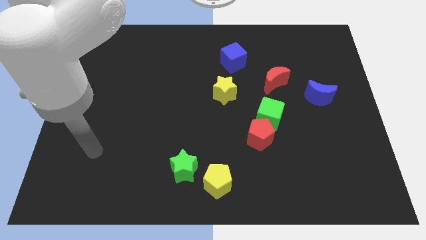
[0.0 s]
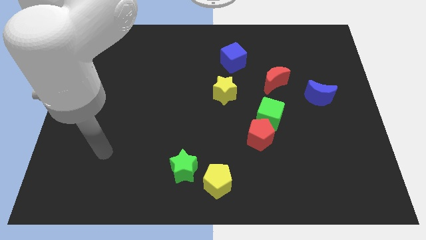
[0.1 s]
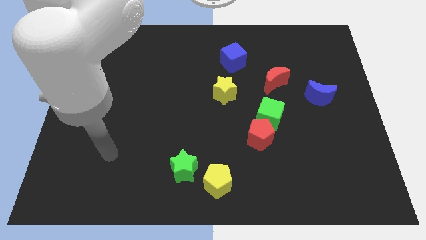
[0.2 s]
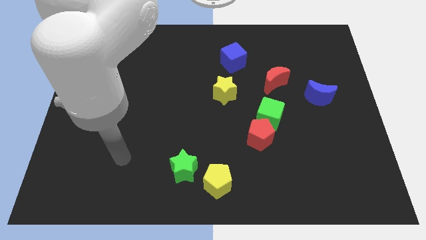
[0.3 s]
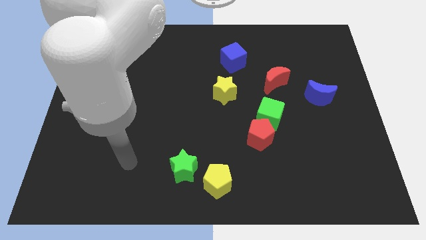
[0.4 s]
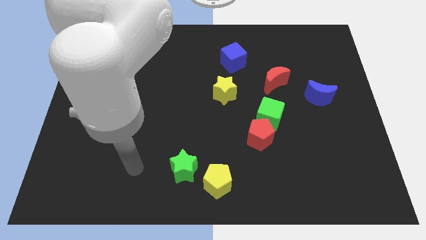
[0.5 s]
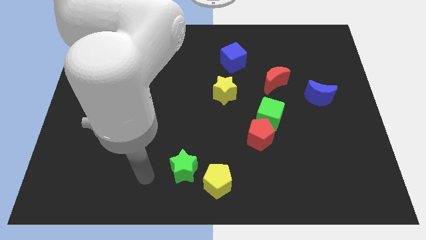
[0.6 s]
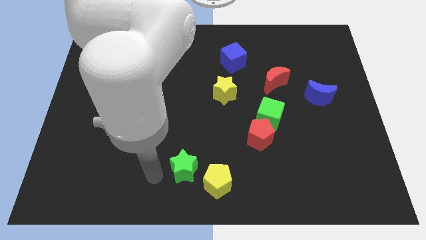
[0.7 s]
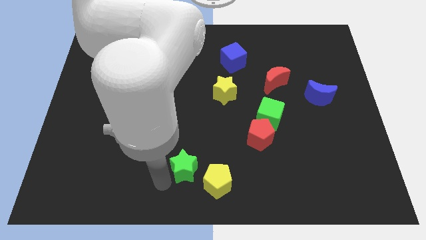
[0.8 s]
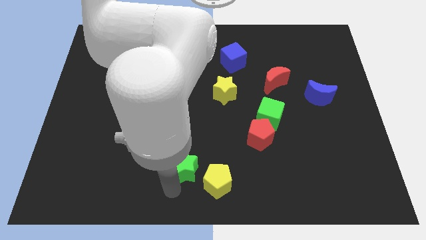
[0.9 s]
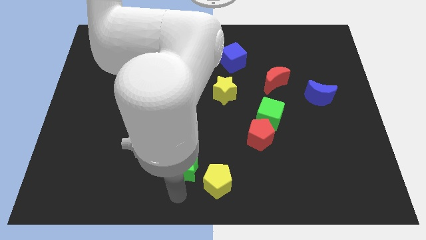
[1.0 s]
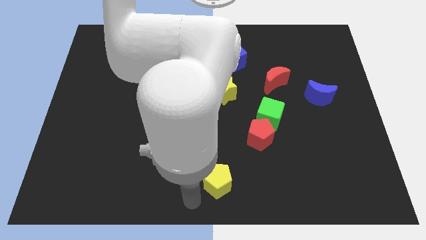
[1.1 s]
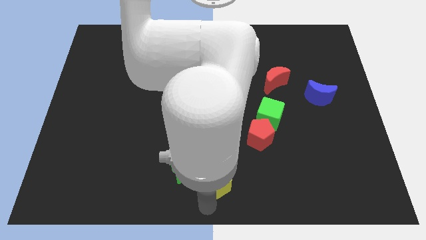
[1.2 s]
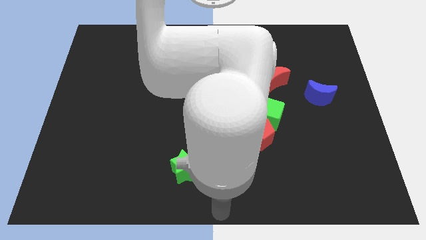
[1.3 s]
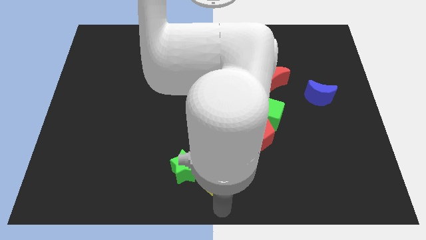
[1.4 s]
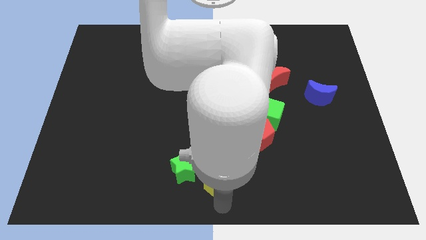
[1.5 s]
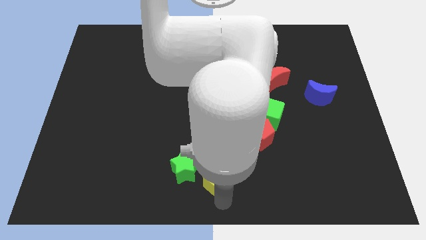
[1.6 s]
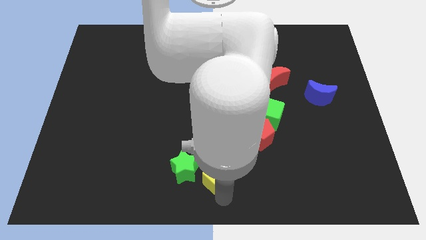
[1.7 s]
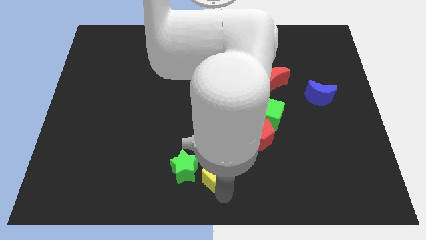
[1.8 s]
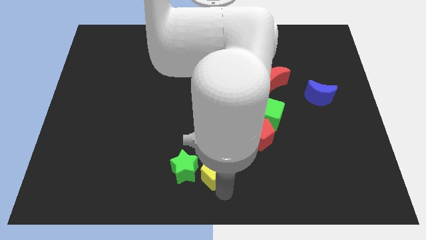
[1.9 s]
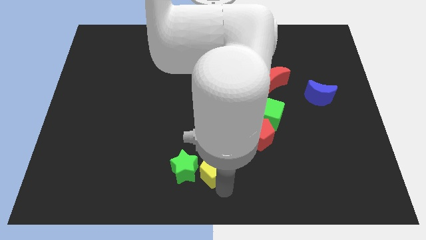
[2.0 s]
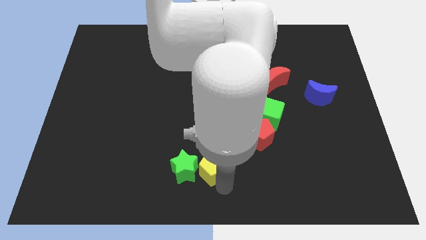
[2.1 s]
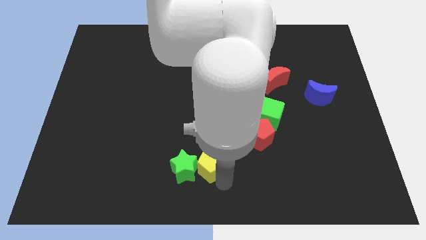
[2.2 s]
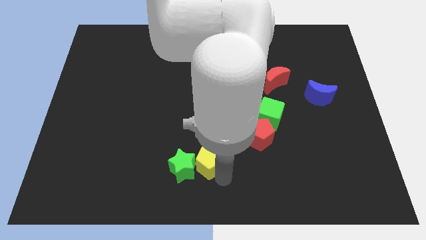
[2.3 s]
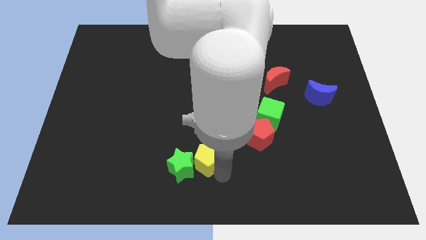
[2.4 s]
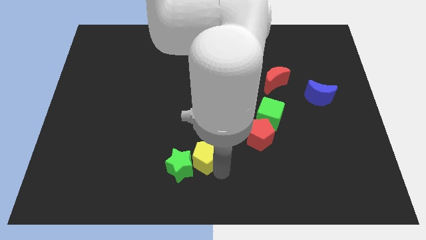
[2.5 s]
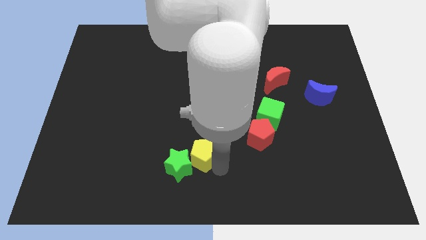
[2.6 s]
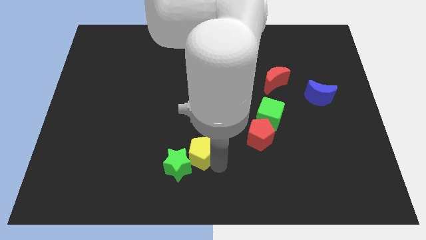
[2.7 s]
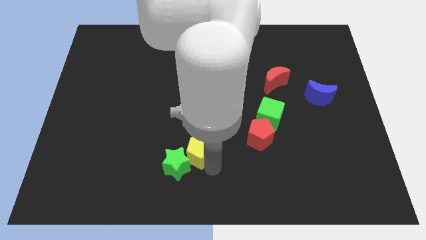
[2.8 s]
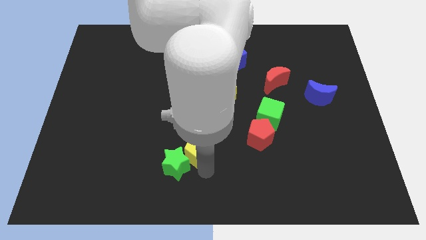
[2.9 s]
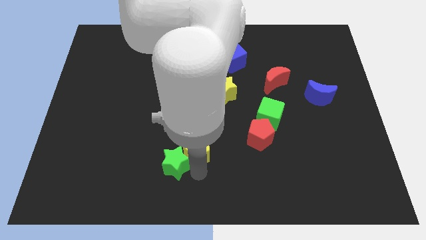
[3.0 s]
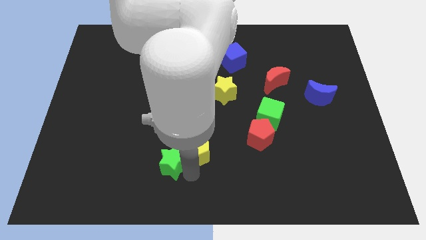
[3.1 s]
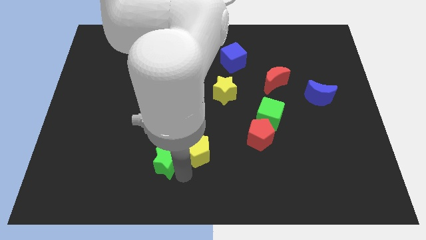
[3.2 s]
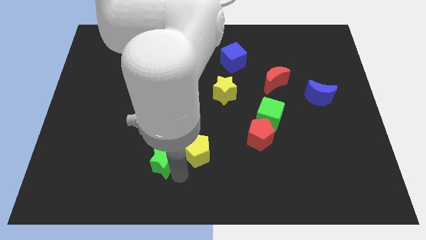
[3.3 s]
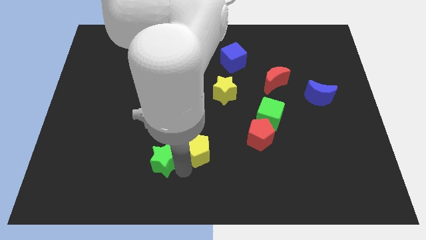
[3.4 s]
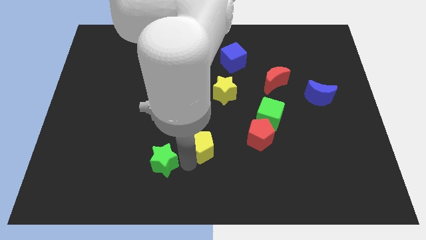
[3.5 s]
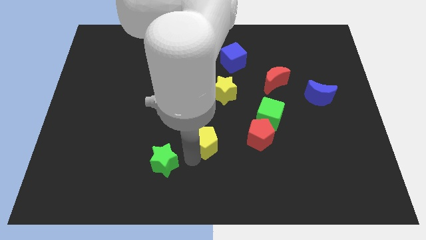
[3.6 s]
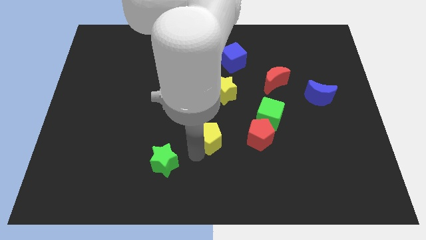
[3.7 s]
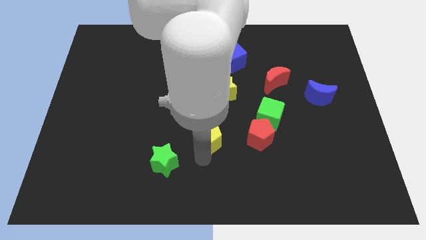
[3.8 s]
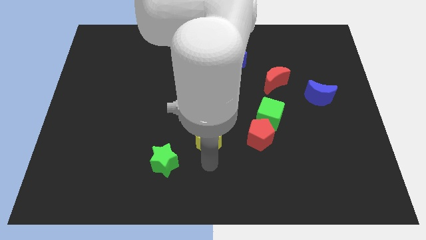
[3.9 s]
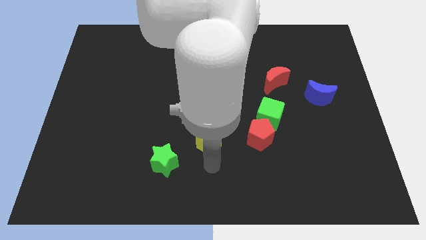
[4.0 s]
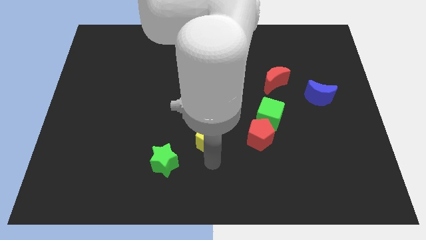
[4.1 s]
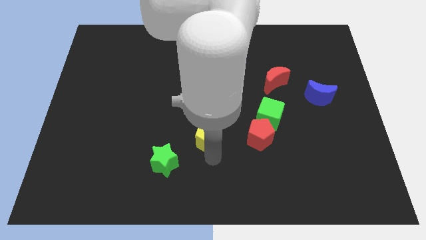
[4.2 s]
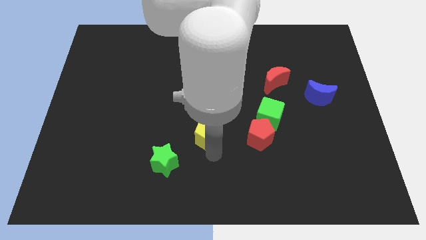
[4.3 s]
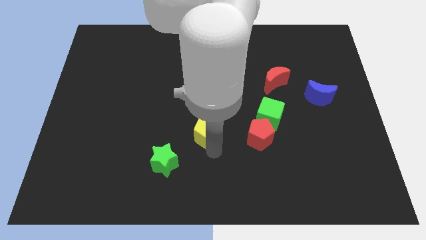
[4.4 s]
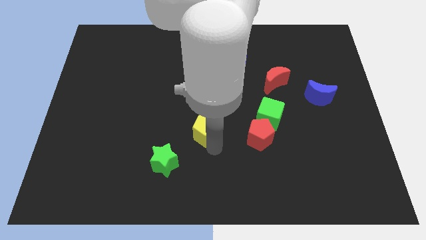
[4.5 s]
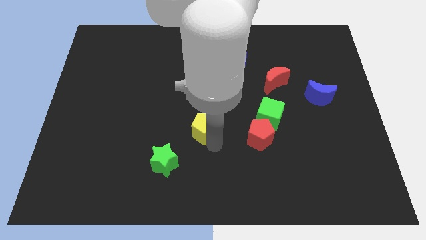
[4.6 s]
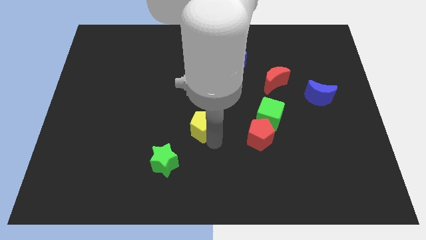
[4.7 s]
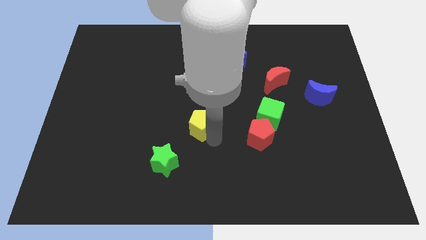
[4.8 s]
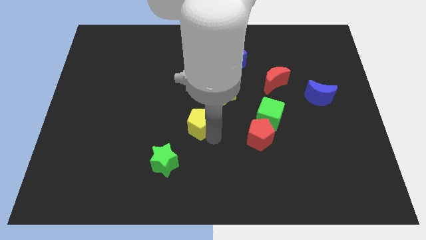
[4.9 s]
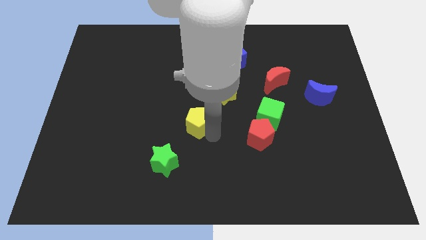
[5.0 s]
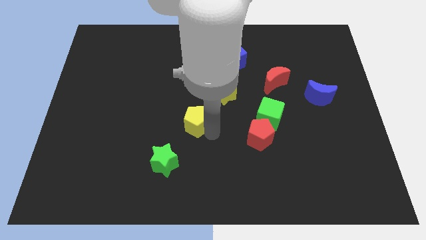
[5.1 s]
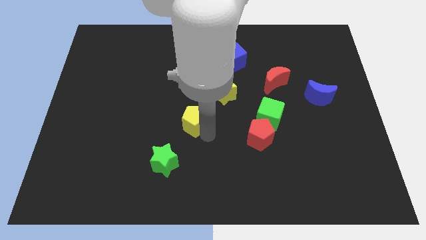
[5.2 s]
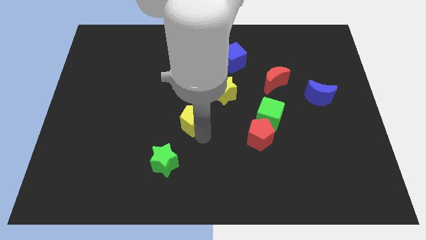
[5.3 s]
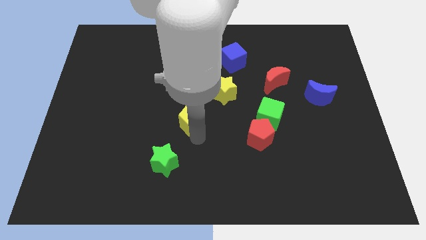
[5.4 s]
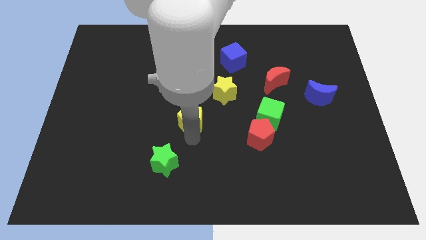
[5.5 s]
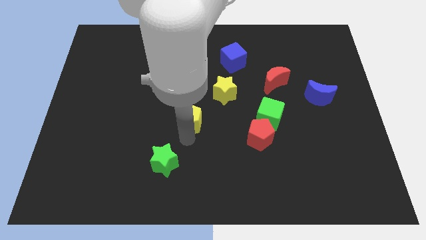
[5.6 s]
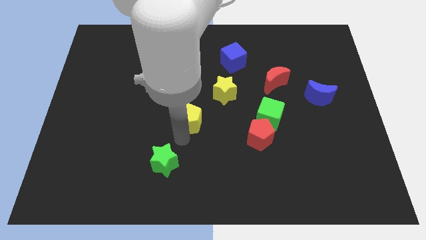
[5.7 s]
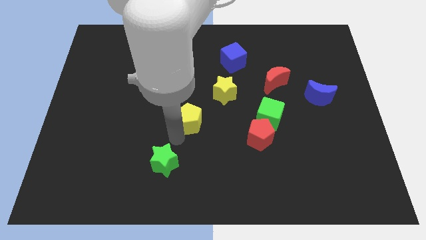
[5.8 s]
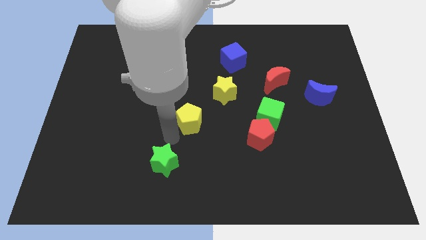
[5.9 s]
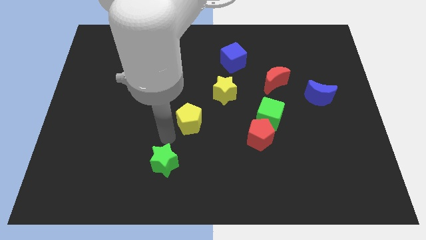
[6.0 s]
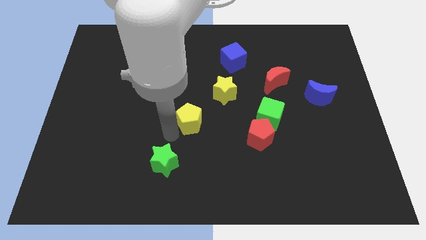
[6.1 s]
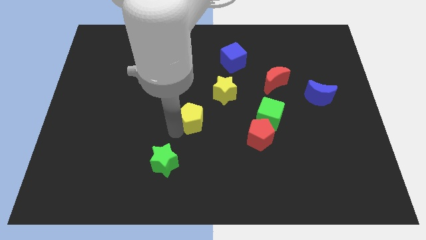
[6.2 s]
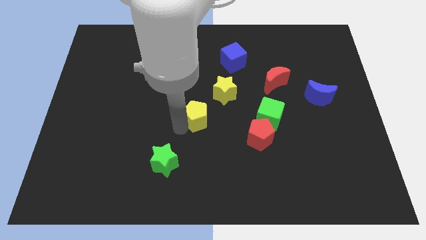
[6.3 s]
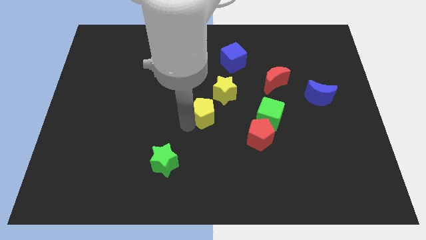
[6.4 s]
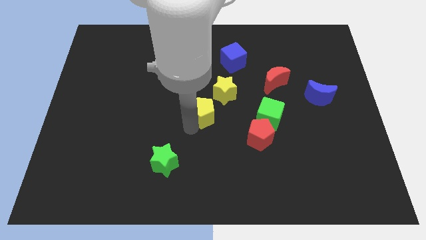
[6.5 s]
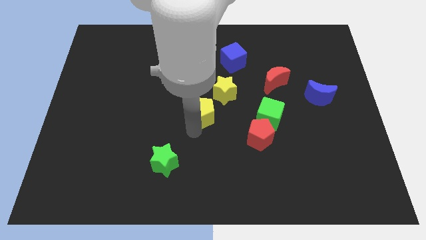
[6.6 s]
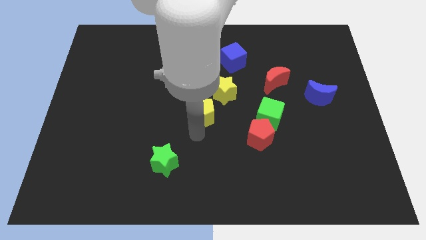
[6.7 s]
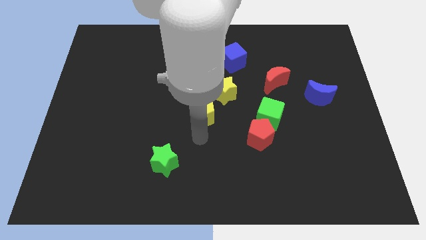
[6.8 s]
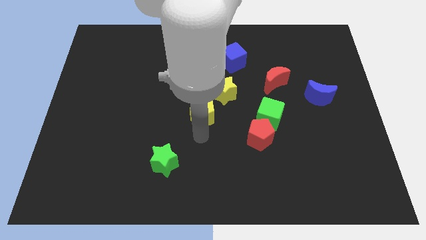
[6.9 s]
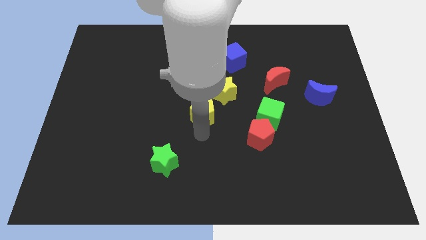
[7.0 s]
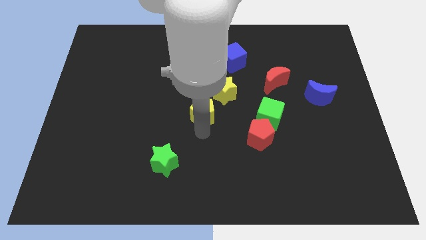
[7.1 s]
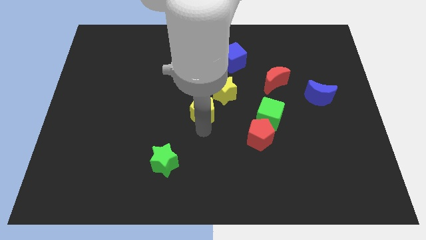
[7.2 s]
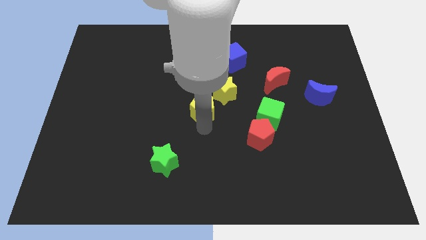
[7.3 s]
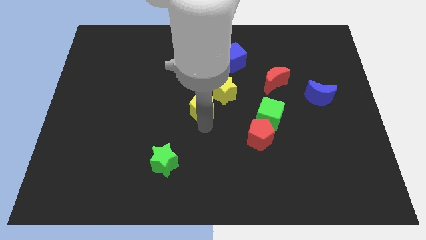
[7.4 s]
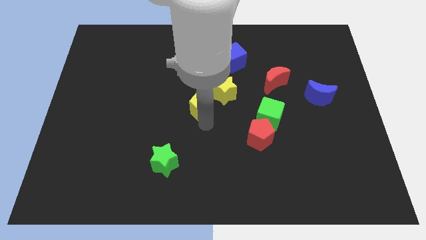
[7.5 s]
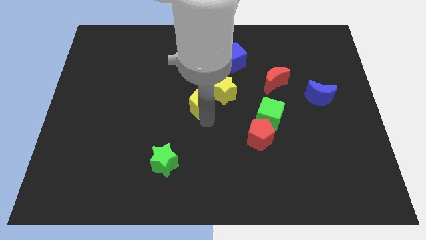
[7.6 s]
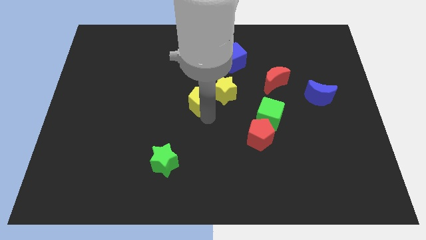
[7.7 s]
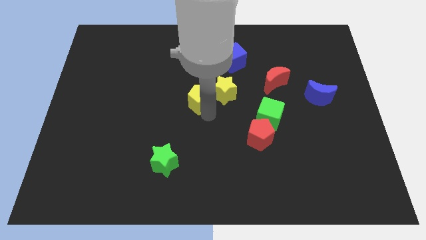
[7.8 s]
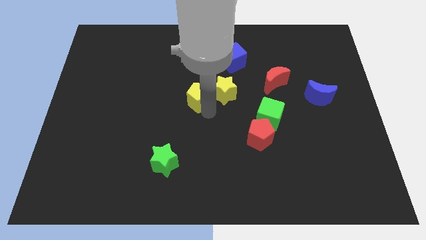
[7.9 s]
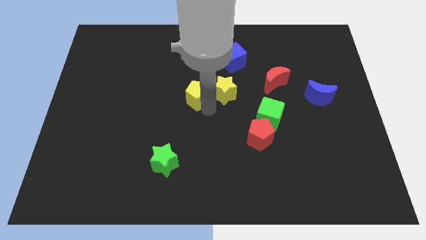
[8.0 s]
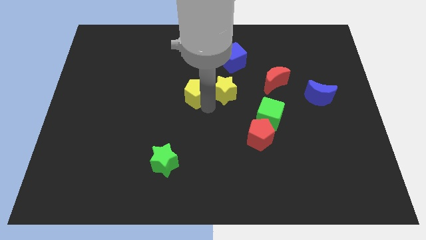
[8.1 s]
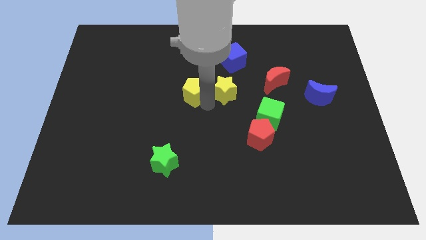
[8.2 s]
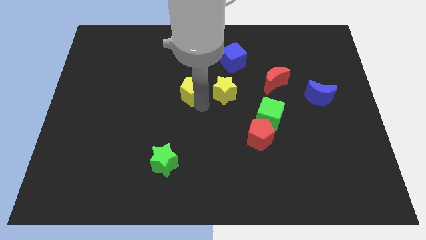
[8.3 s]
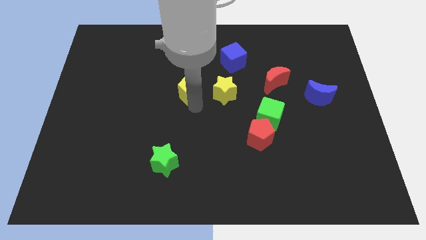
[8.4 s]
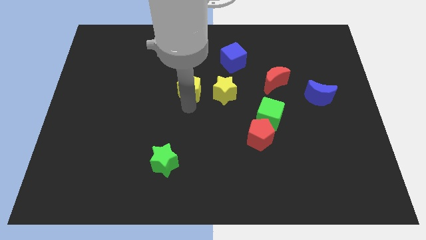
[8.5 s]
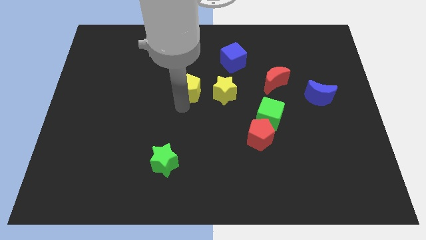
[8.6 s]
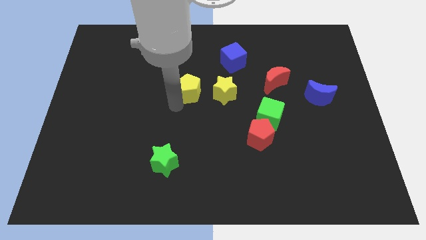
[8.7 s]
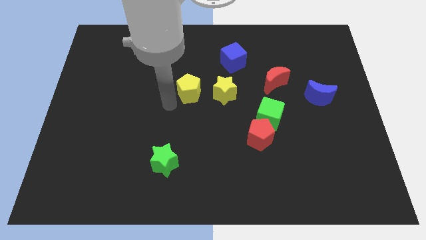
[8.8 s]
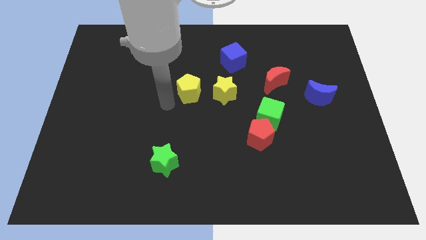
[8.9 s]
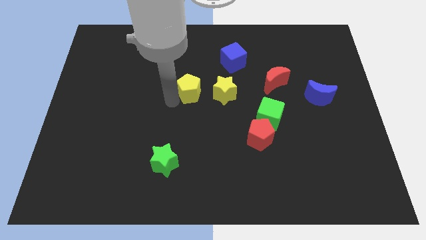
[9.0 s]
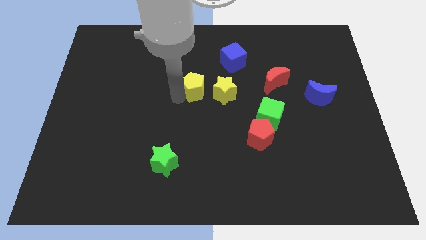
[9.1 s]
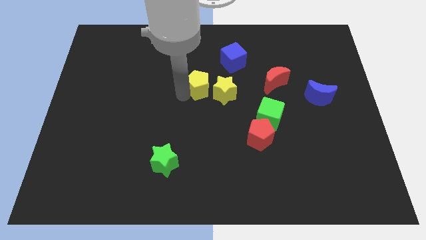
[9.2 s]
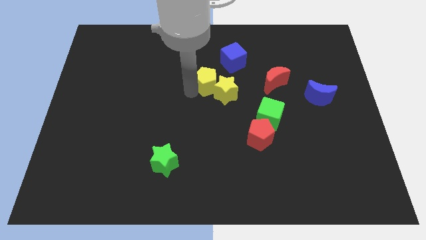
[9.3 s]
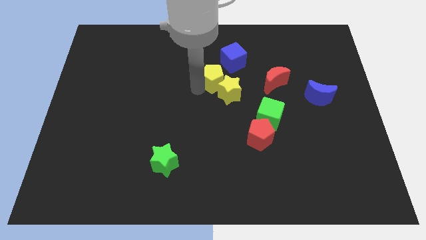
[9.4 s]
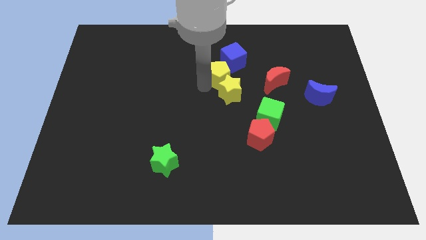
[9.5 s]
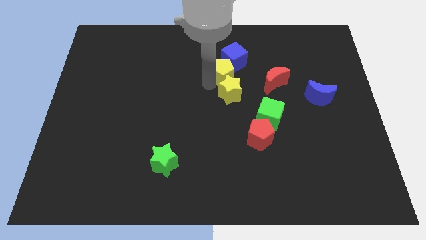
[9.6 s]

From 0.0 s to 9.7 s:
move the yellow pentagon towards the blue cube
